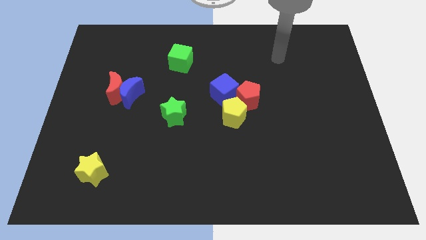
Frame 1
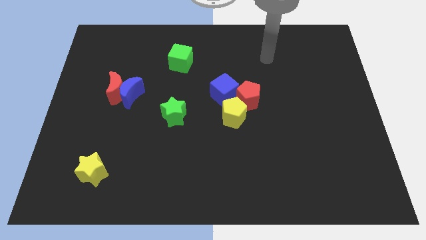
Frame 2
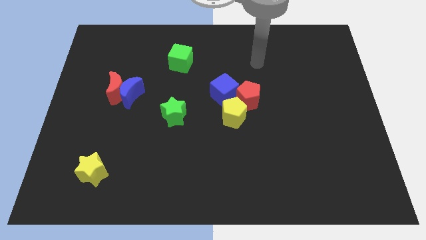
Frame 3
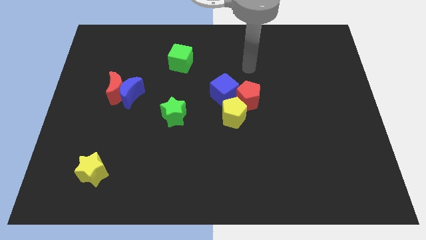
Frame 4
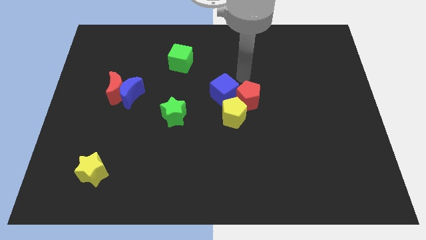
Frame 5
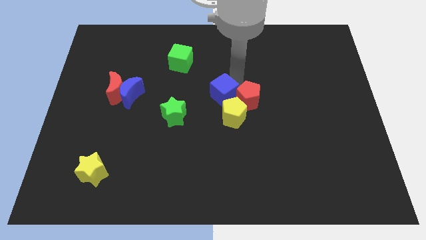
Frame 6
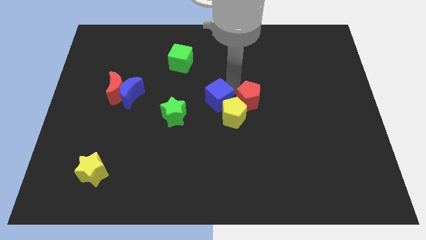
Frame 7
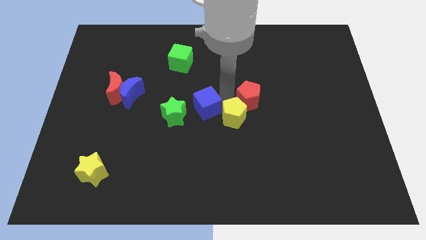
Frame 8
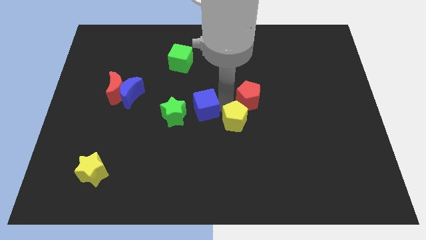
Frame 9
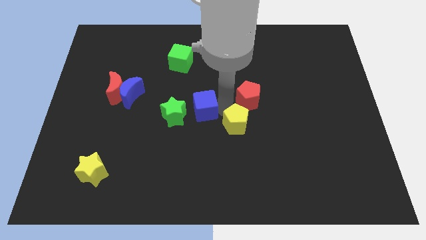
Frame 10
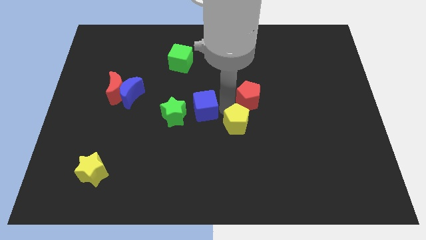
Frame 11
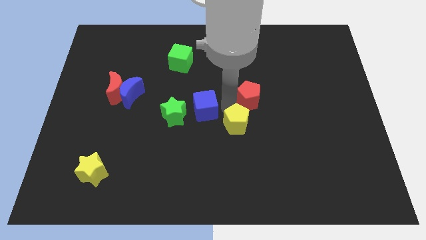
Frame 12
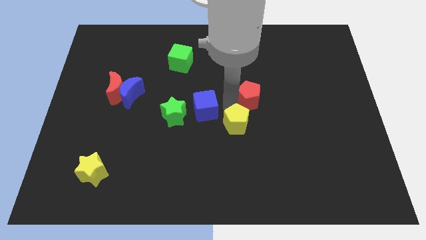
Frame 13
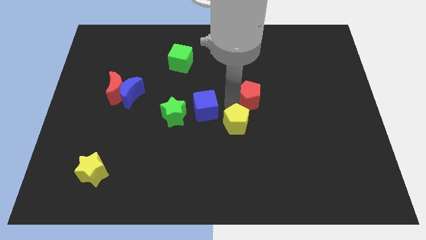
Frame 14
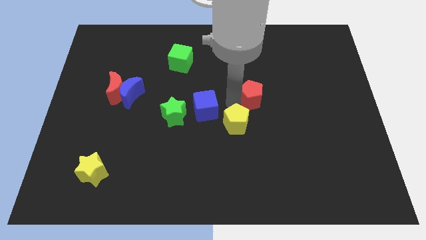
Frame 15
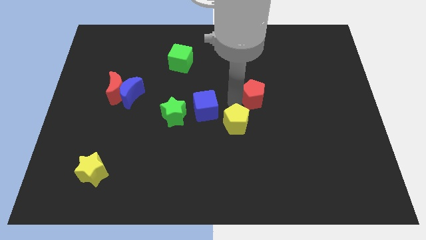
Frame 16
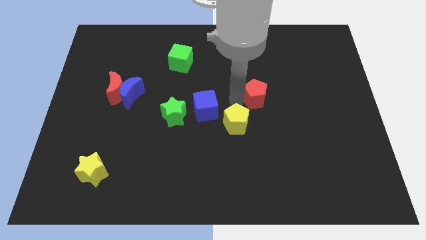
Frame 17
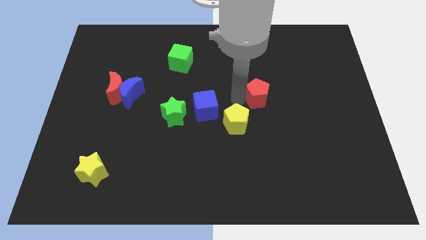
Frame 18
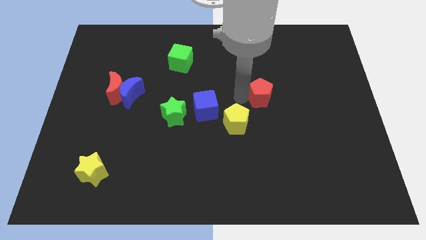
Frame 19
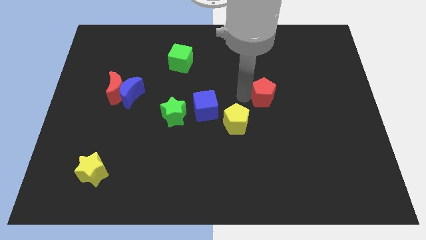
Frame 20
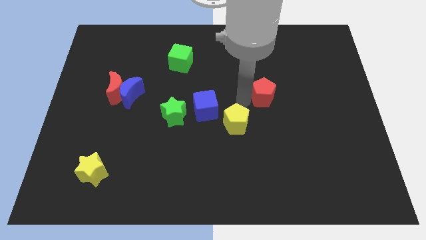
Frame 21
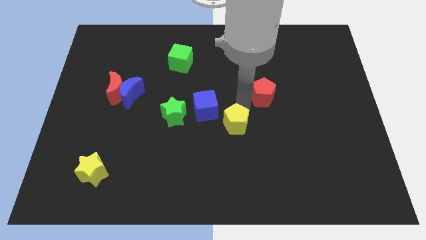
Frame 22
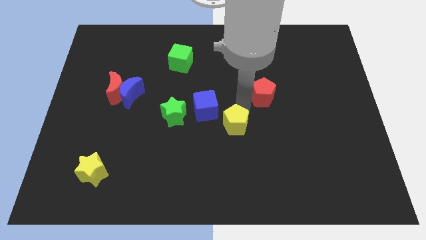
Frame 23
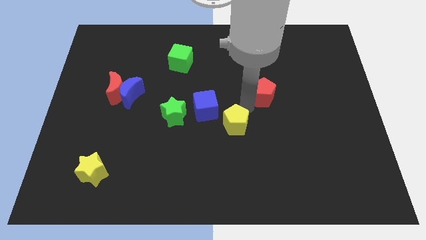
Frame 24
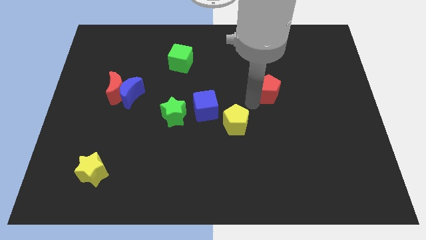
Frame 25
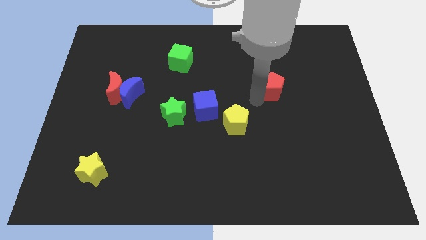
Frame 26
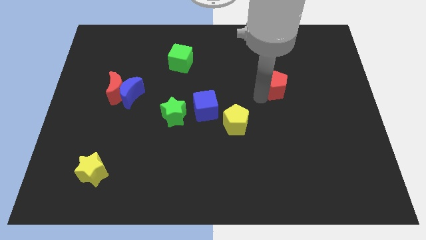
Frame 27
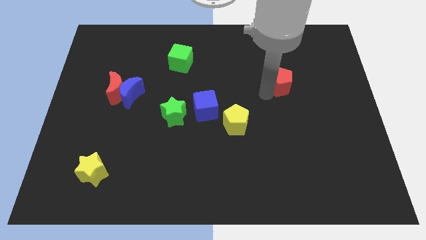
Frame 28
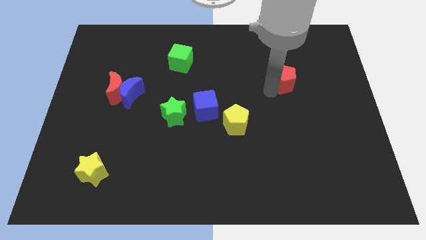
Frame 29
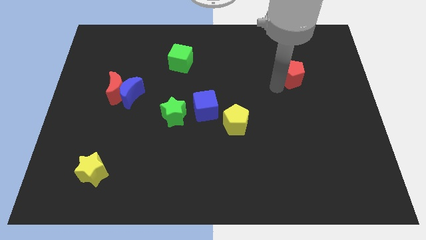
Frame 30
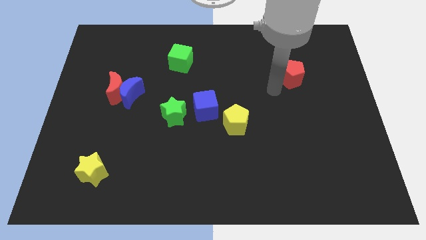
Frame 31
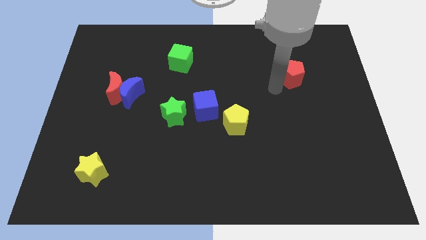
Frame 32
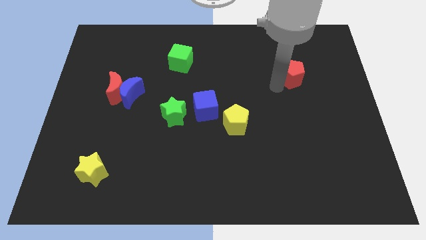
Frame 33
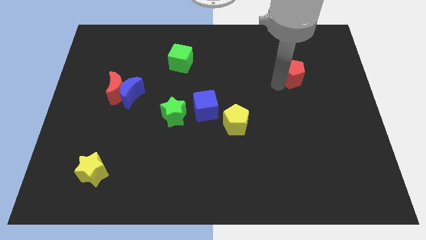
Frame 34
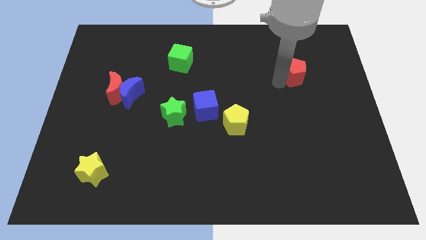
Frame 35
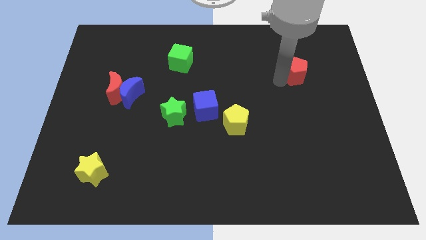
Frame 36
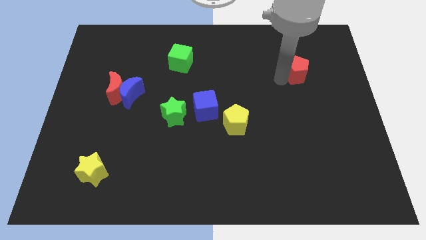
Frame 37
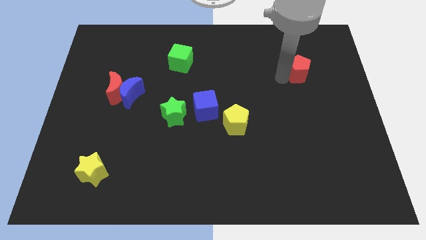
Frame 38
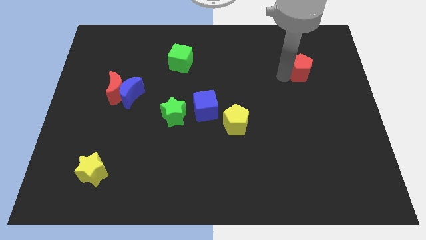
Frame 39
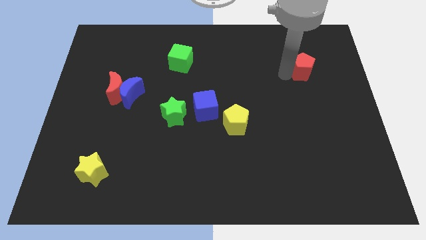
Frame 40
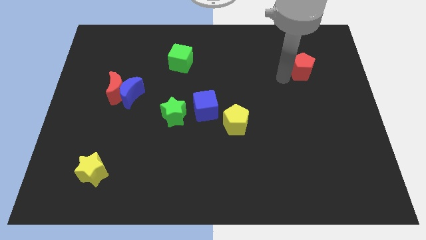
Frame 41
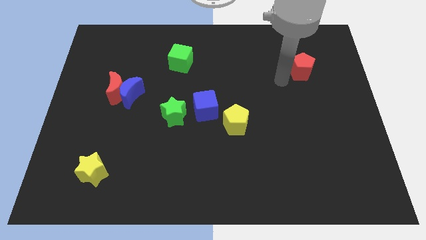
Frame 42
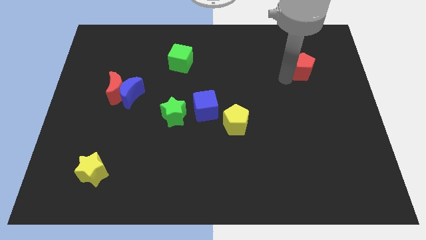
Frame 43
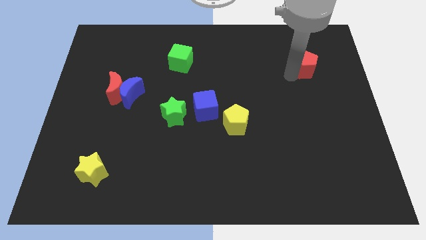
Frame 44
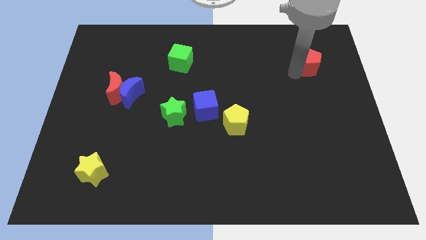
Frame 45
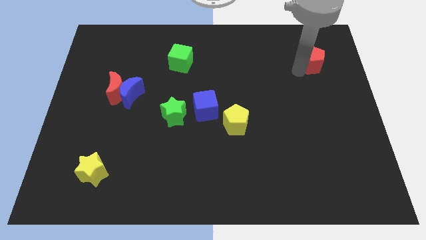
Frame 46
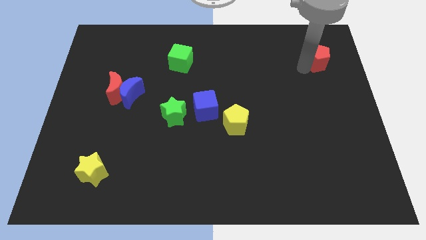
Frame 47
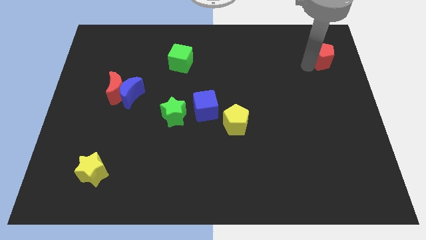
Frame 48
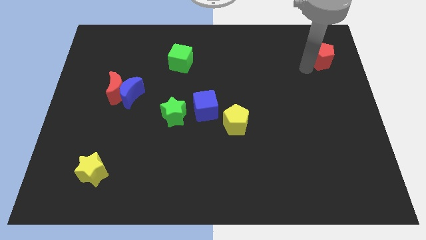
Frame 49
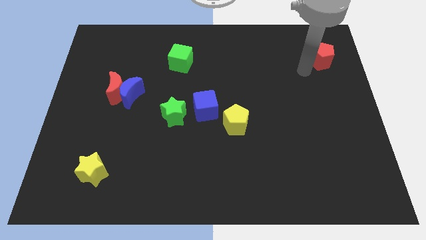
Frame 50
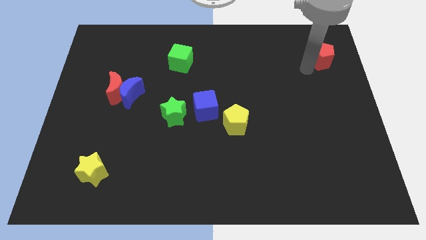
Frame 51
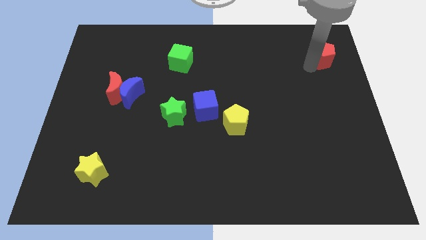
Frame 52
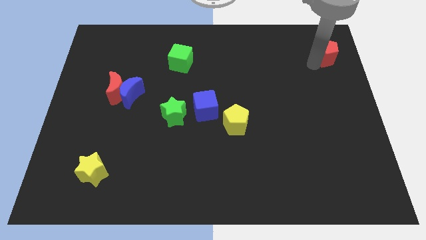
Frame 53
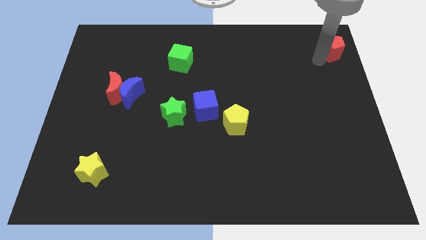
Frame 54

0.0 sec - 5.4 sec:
put the red pentagon to the upper right corner

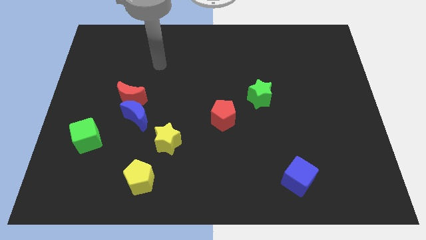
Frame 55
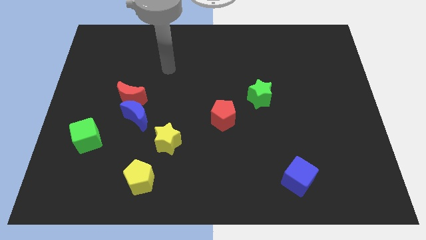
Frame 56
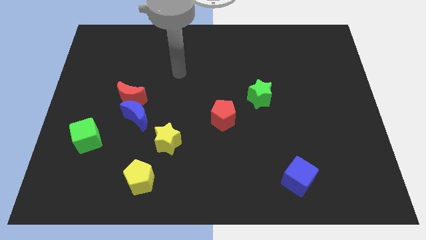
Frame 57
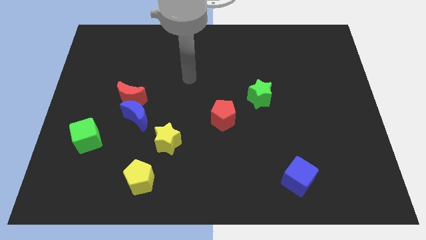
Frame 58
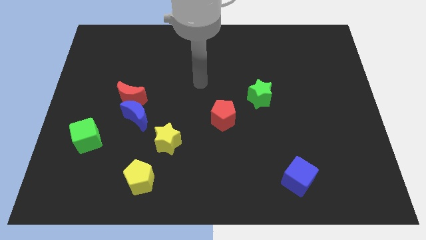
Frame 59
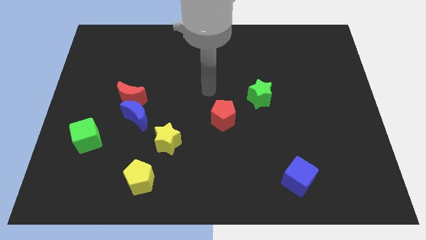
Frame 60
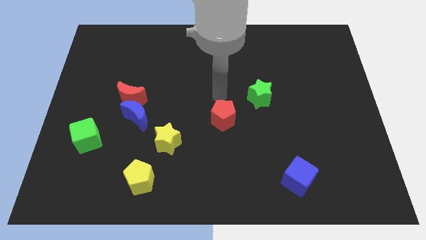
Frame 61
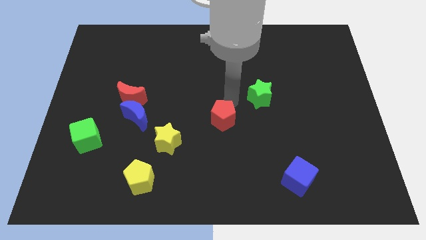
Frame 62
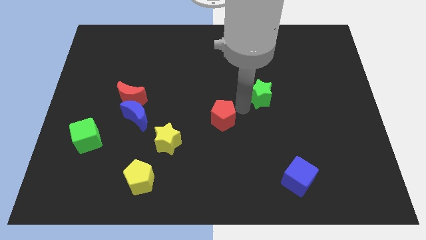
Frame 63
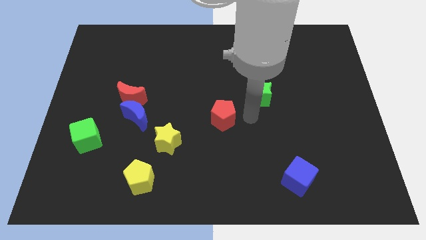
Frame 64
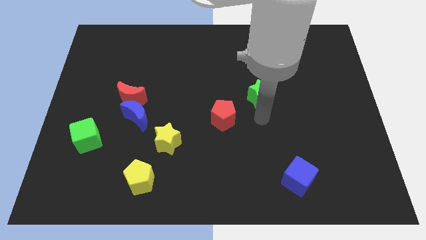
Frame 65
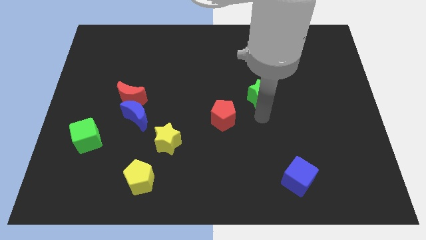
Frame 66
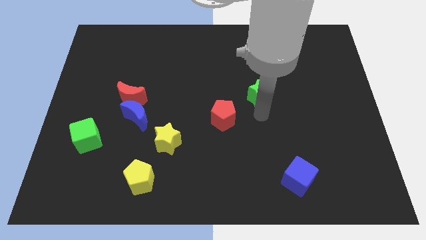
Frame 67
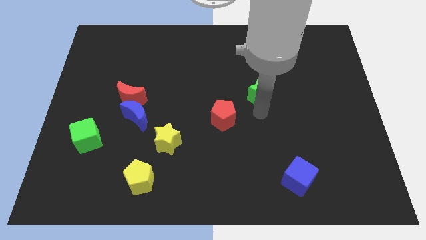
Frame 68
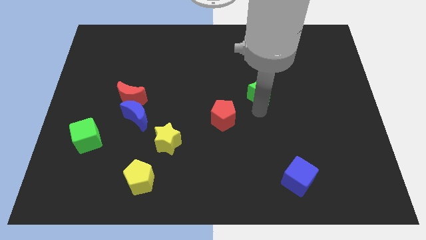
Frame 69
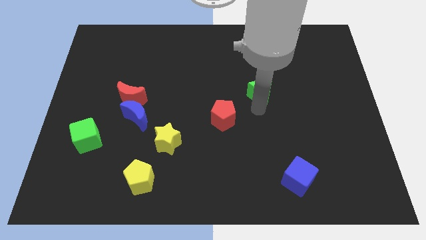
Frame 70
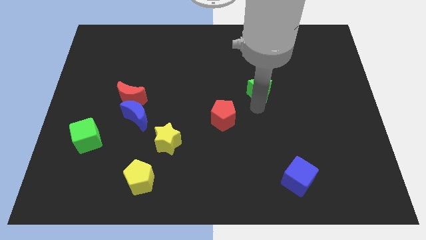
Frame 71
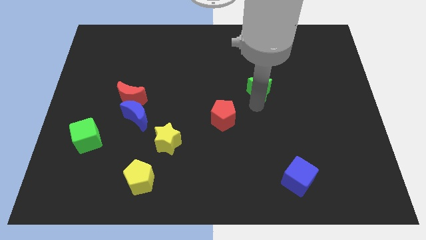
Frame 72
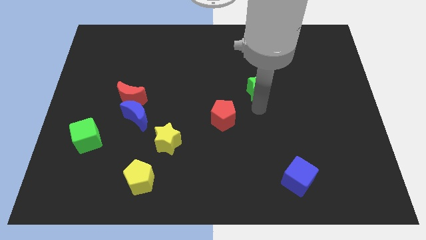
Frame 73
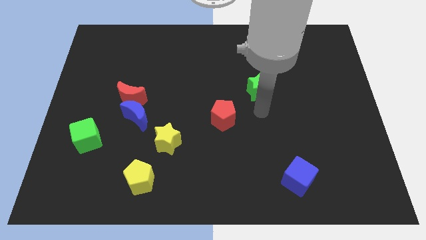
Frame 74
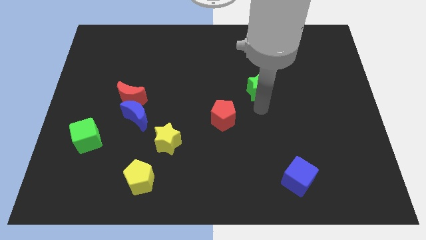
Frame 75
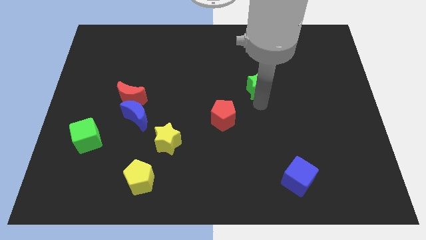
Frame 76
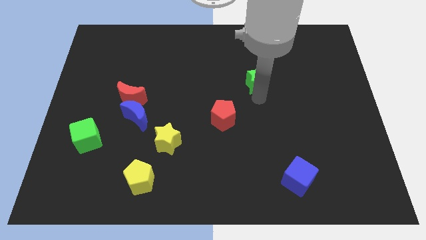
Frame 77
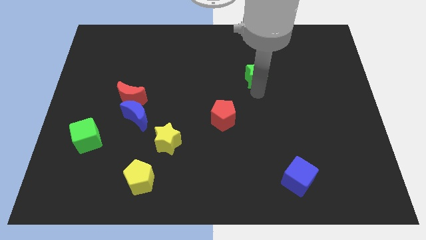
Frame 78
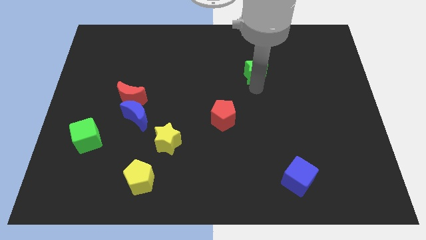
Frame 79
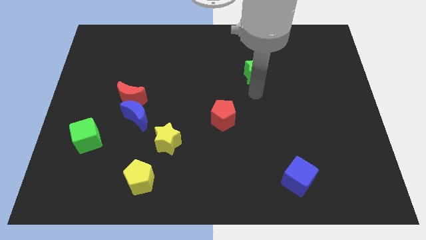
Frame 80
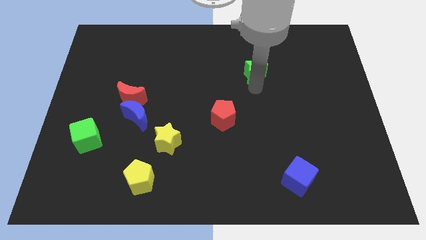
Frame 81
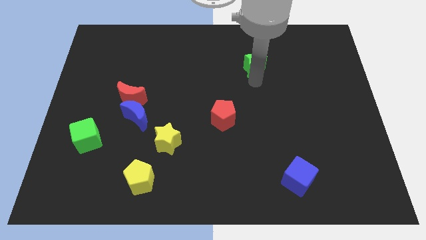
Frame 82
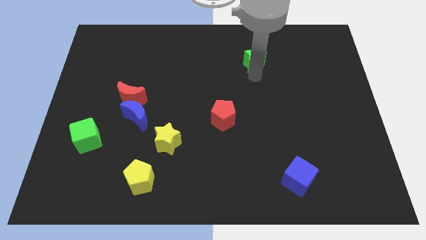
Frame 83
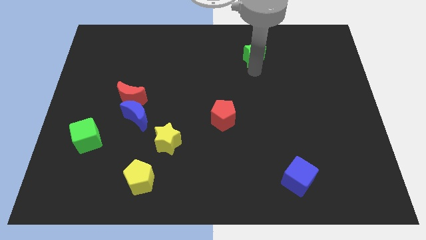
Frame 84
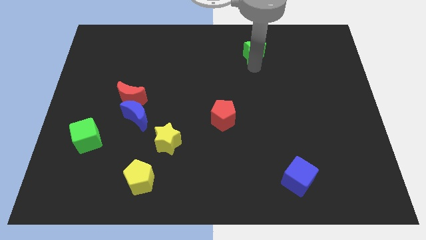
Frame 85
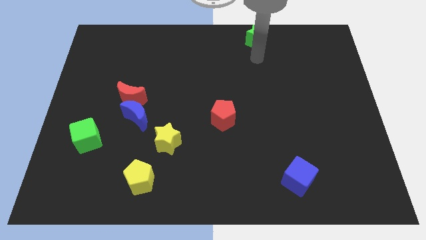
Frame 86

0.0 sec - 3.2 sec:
push the green star to the towards your base
